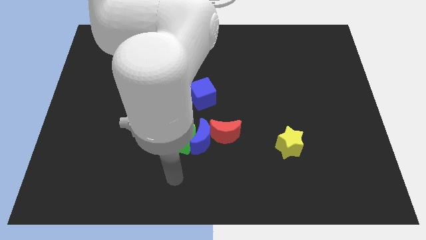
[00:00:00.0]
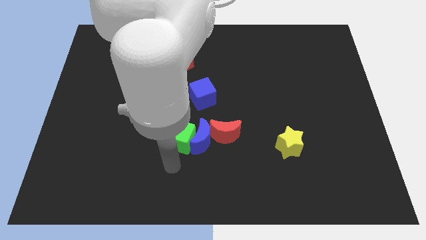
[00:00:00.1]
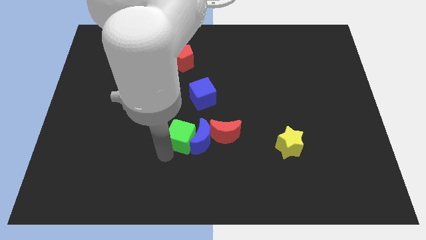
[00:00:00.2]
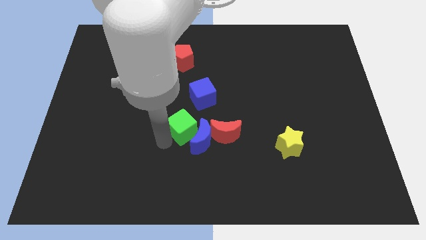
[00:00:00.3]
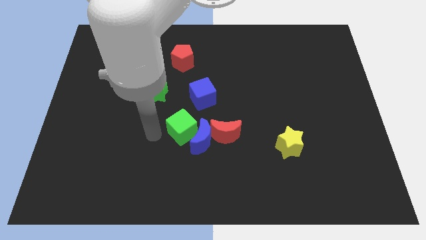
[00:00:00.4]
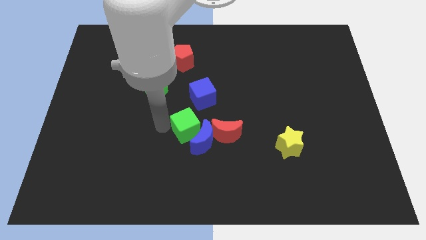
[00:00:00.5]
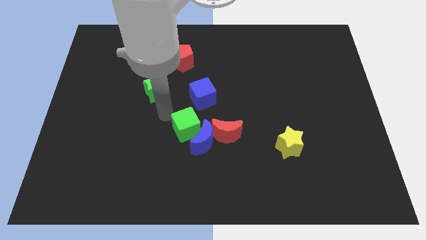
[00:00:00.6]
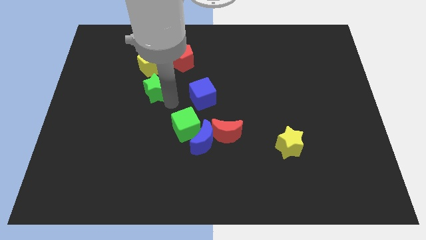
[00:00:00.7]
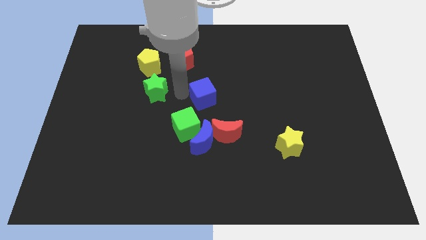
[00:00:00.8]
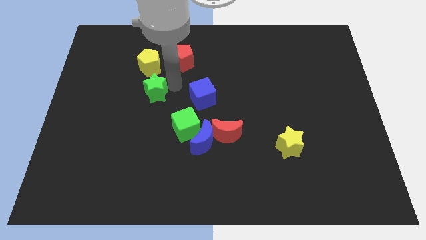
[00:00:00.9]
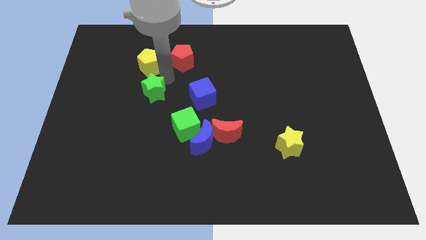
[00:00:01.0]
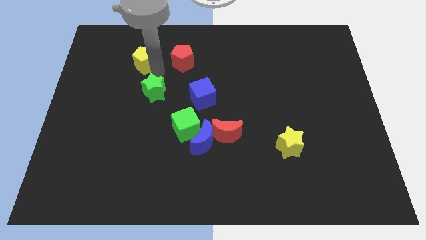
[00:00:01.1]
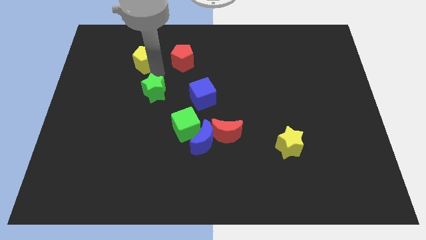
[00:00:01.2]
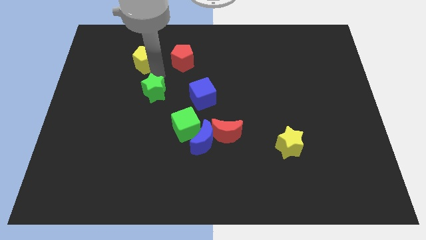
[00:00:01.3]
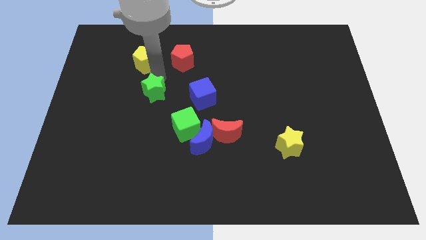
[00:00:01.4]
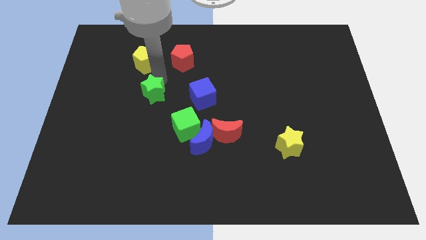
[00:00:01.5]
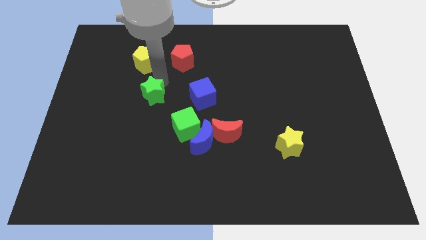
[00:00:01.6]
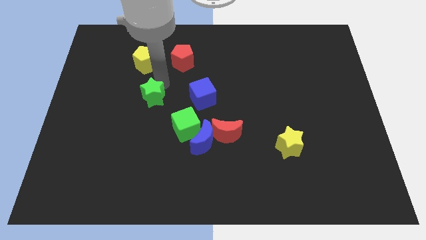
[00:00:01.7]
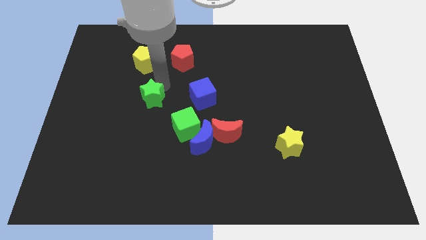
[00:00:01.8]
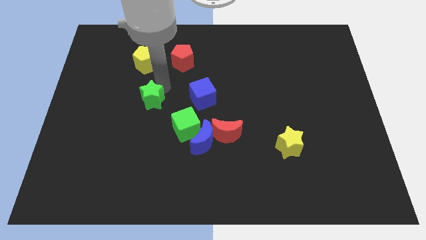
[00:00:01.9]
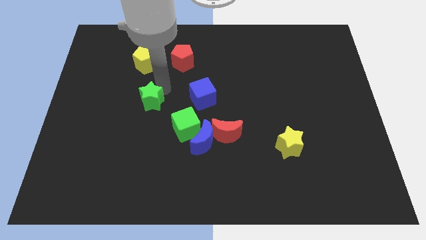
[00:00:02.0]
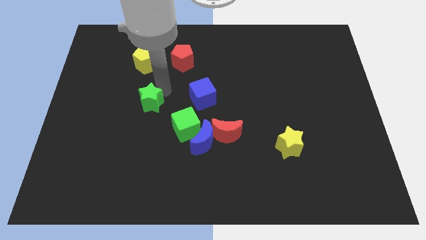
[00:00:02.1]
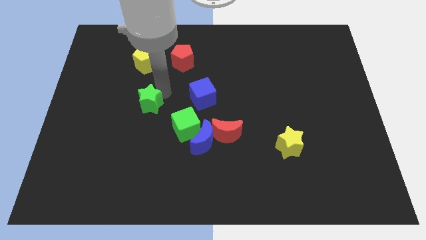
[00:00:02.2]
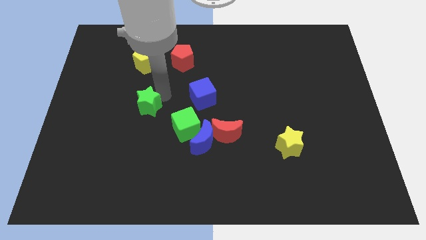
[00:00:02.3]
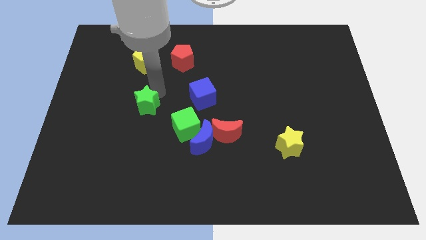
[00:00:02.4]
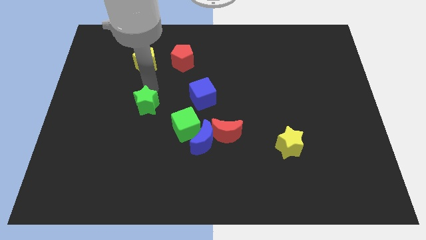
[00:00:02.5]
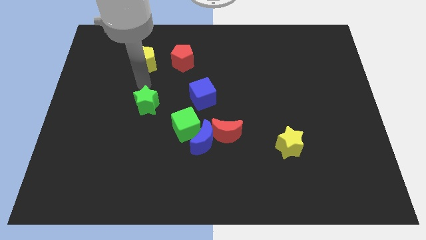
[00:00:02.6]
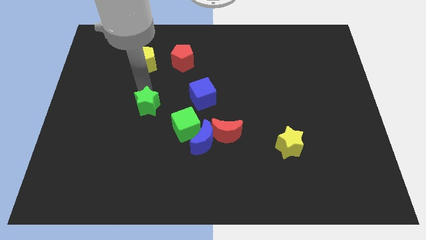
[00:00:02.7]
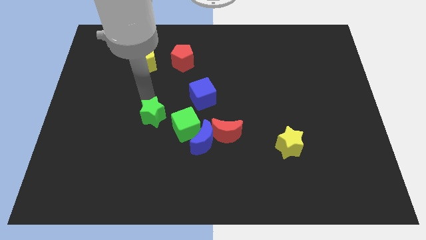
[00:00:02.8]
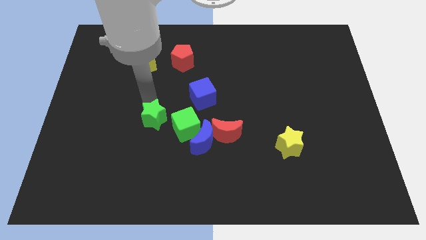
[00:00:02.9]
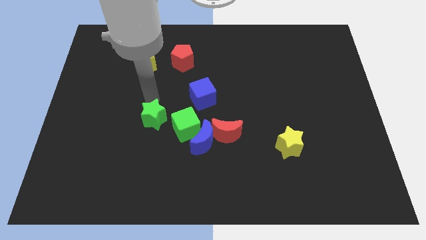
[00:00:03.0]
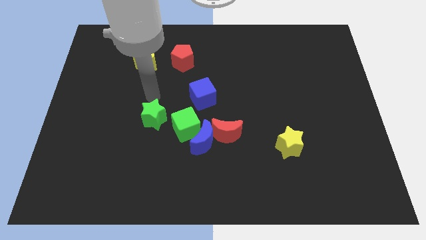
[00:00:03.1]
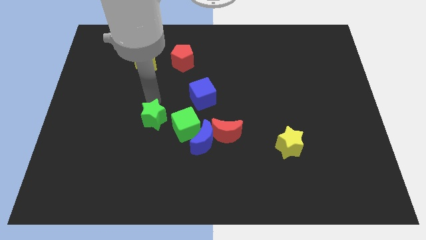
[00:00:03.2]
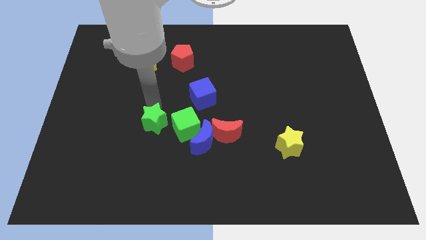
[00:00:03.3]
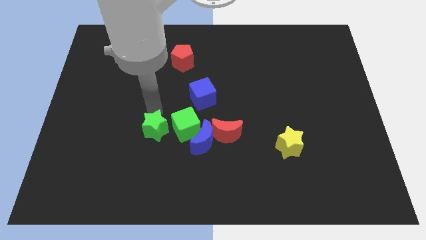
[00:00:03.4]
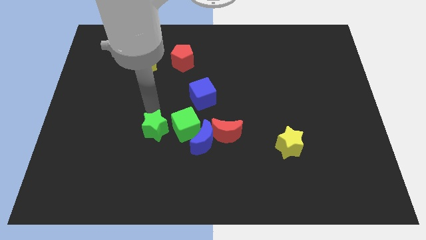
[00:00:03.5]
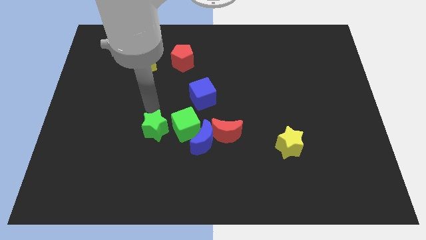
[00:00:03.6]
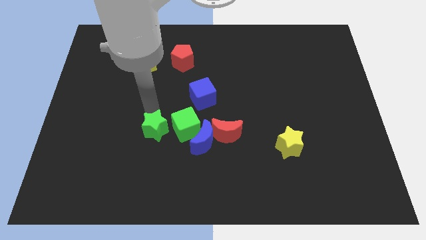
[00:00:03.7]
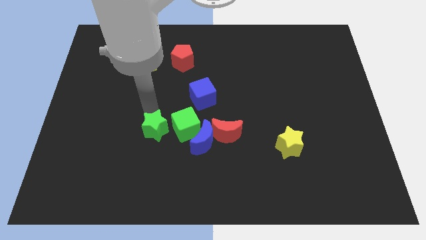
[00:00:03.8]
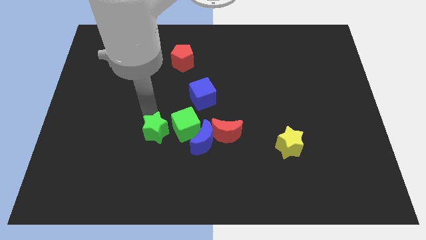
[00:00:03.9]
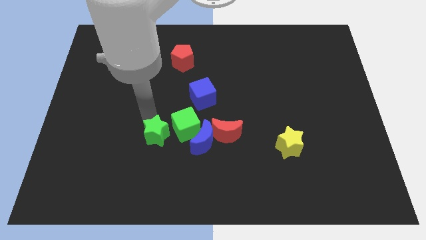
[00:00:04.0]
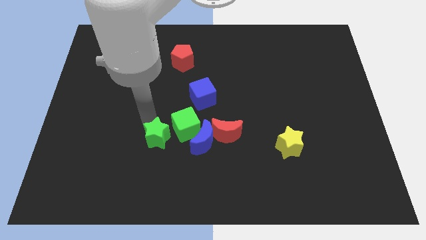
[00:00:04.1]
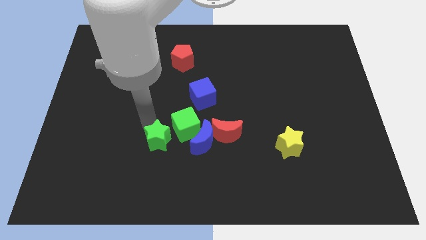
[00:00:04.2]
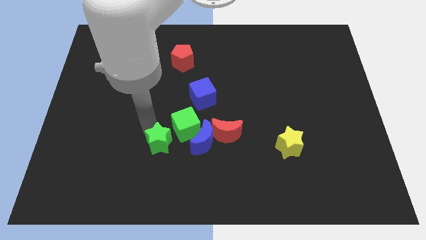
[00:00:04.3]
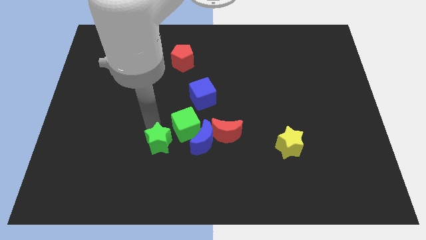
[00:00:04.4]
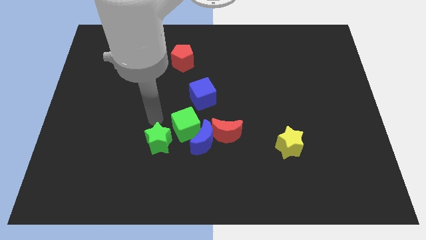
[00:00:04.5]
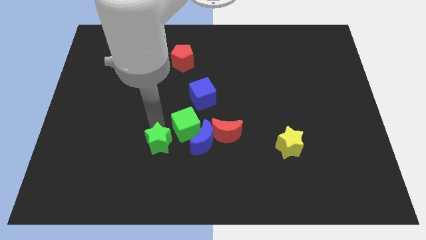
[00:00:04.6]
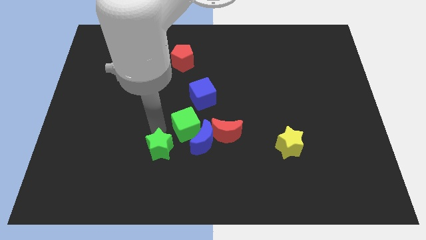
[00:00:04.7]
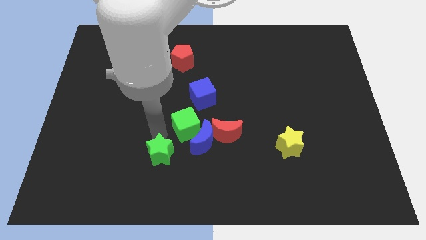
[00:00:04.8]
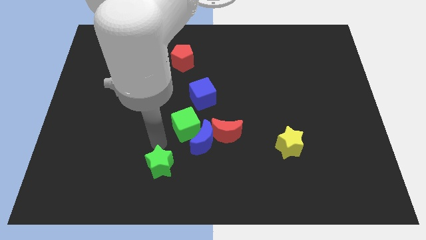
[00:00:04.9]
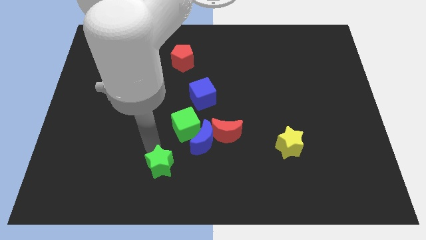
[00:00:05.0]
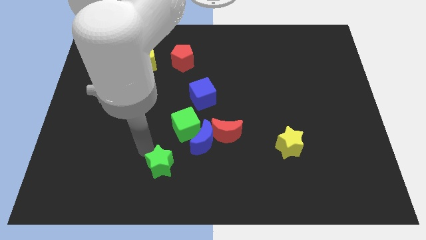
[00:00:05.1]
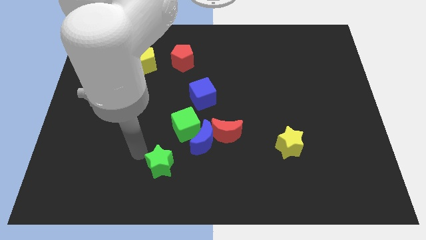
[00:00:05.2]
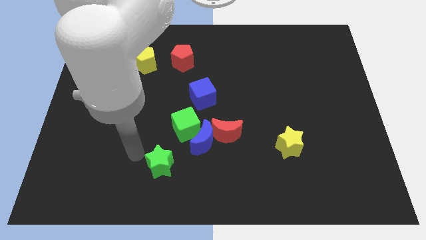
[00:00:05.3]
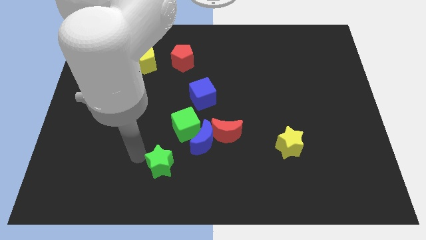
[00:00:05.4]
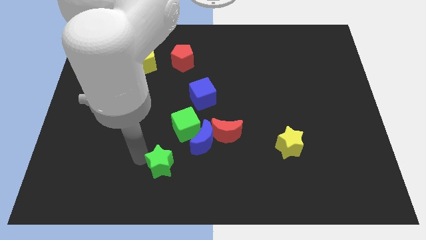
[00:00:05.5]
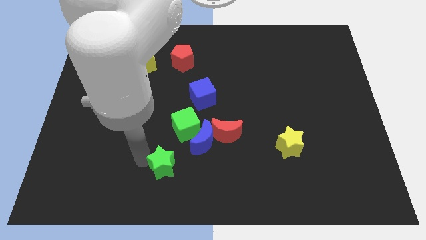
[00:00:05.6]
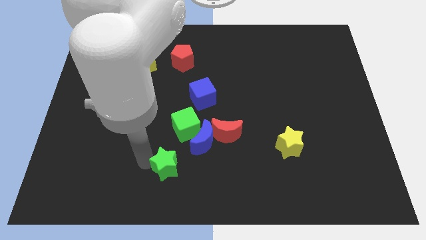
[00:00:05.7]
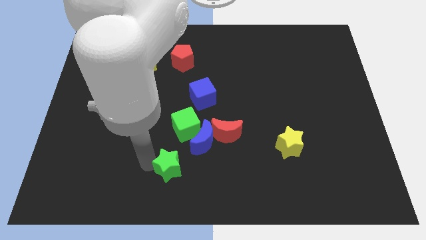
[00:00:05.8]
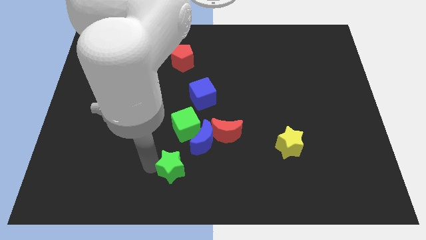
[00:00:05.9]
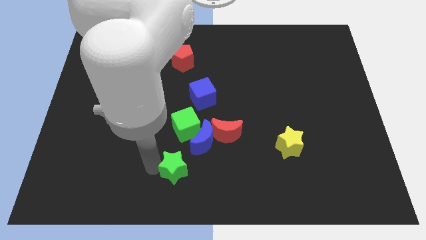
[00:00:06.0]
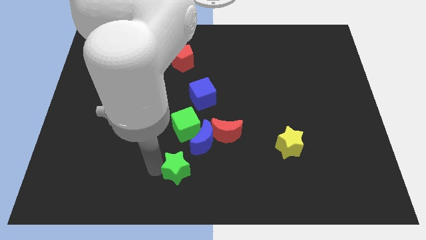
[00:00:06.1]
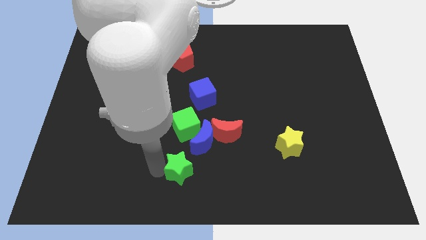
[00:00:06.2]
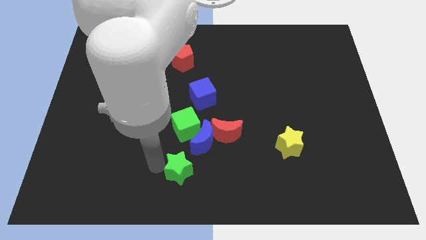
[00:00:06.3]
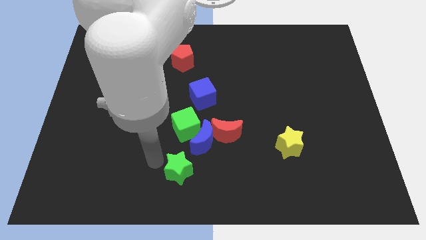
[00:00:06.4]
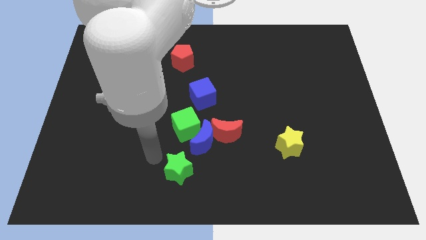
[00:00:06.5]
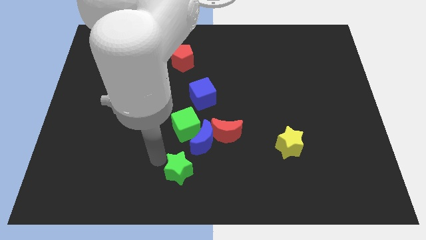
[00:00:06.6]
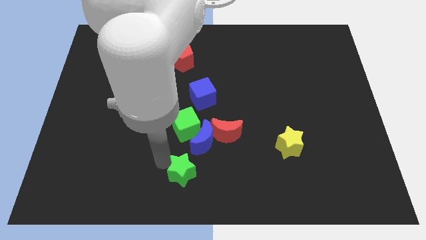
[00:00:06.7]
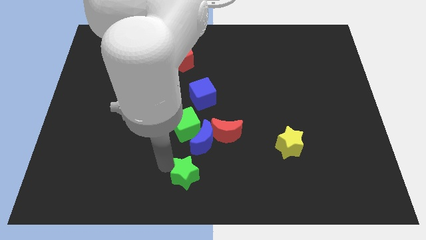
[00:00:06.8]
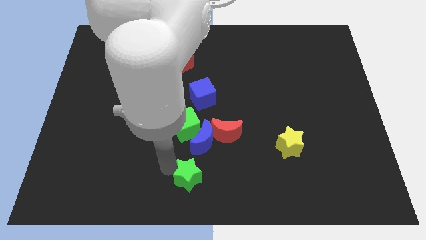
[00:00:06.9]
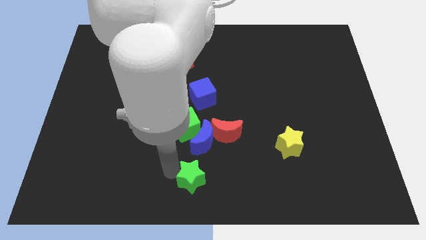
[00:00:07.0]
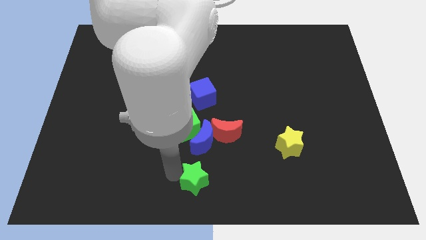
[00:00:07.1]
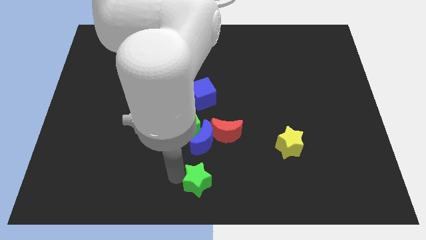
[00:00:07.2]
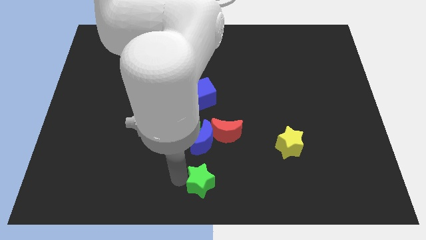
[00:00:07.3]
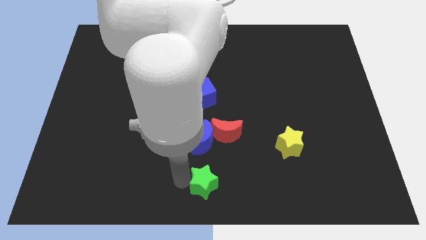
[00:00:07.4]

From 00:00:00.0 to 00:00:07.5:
put the green star to the bottom side of the red moon
